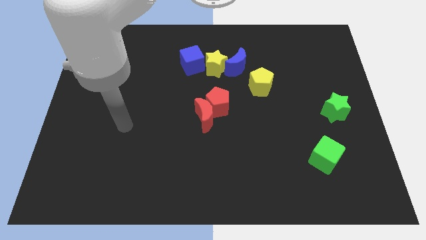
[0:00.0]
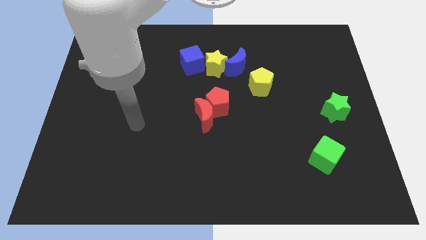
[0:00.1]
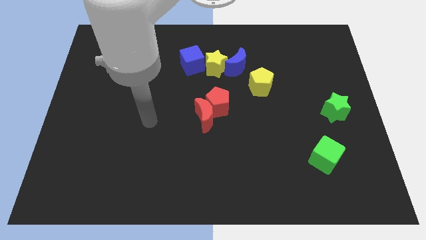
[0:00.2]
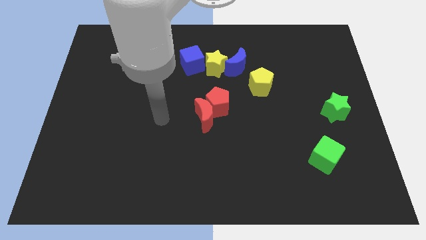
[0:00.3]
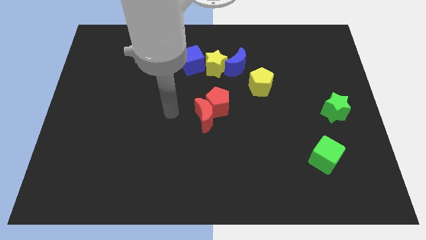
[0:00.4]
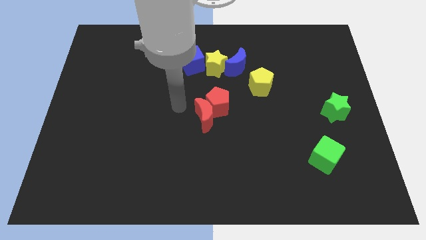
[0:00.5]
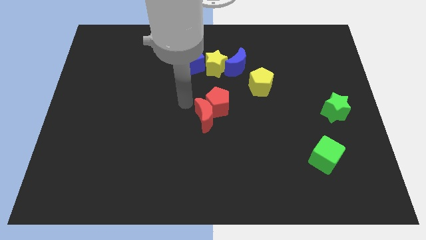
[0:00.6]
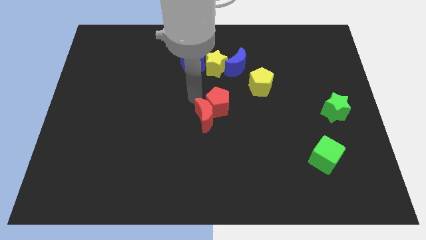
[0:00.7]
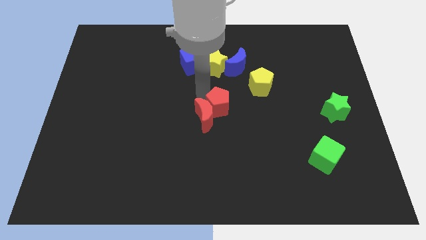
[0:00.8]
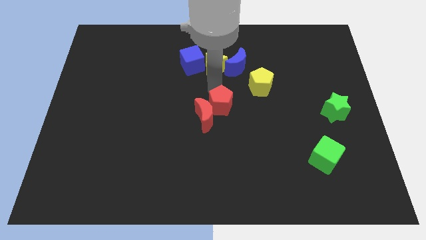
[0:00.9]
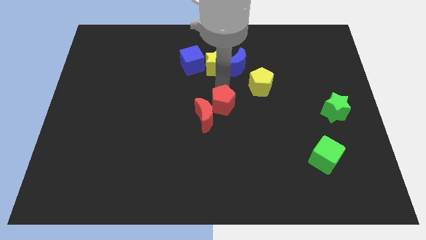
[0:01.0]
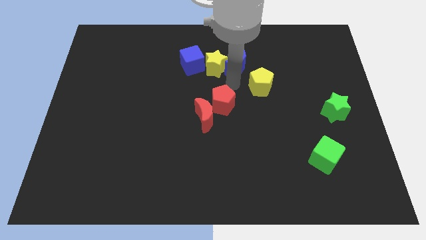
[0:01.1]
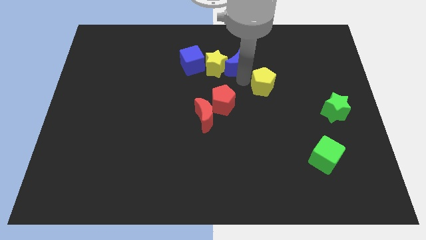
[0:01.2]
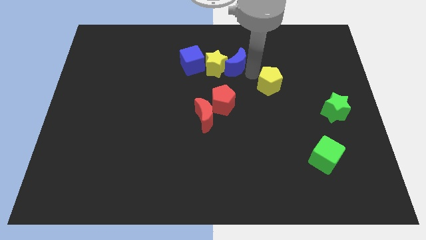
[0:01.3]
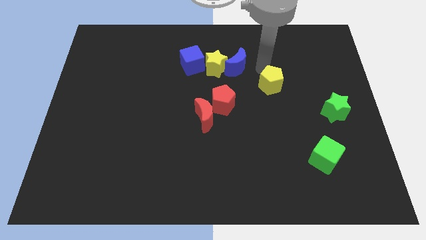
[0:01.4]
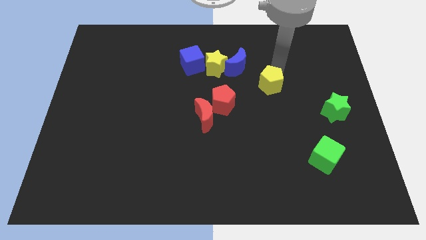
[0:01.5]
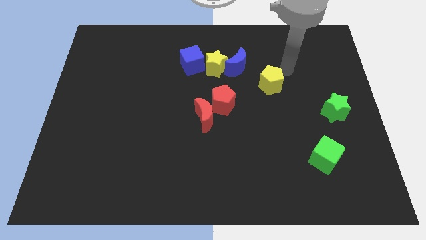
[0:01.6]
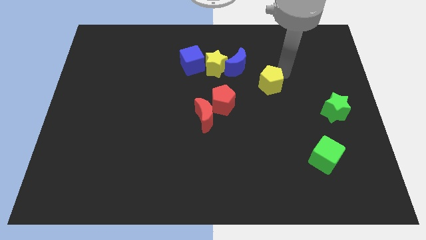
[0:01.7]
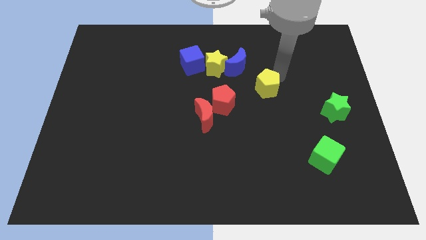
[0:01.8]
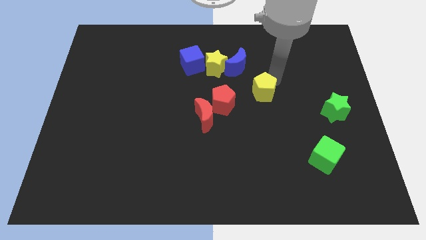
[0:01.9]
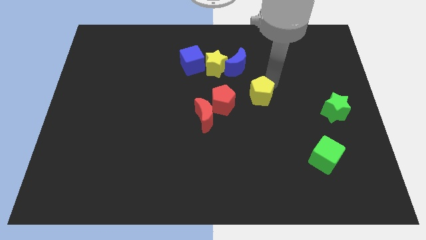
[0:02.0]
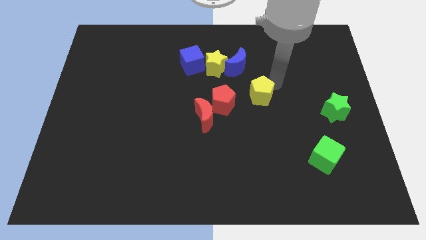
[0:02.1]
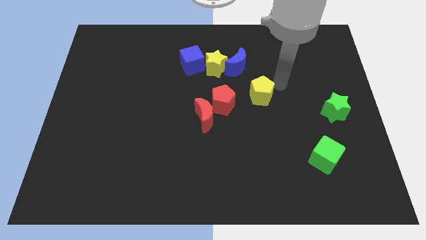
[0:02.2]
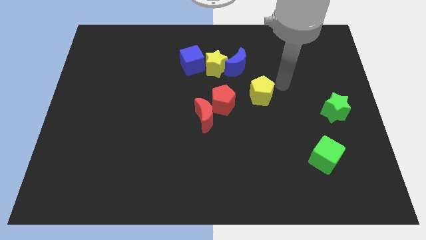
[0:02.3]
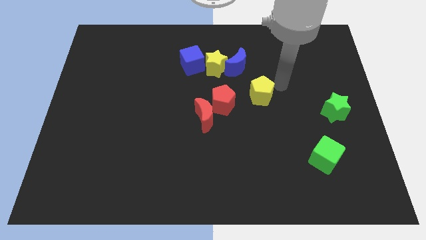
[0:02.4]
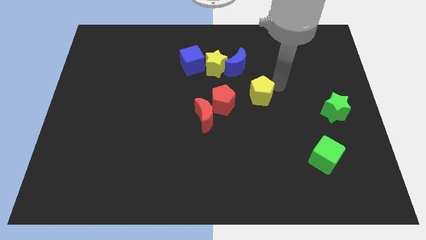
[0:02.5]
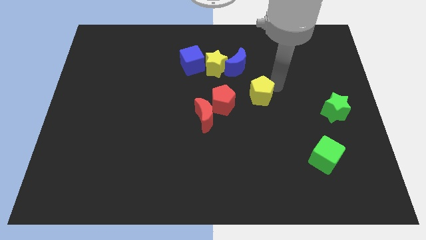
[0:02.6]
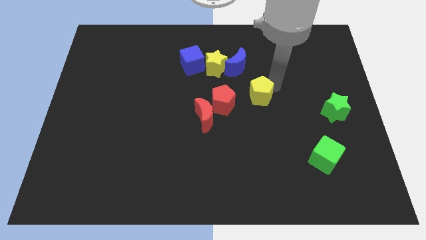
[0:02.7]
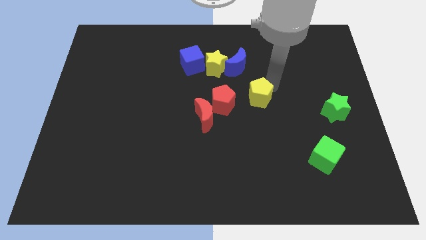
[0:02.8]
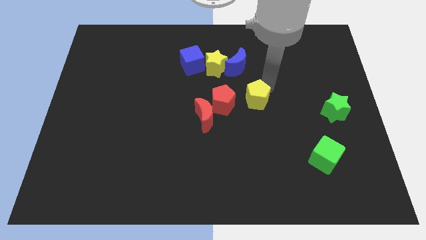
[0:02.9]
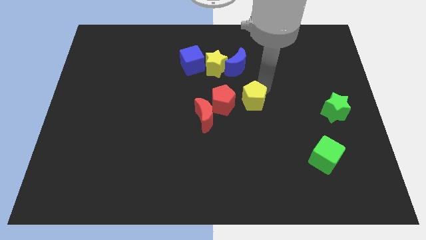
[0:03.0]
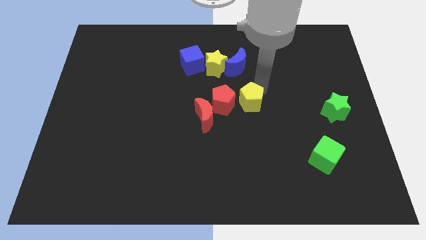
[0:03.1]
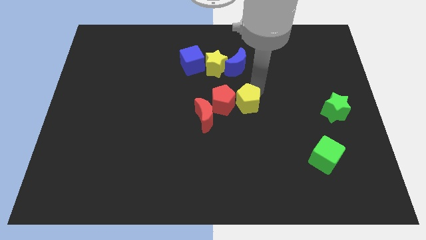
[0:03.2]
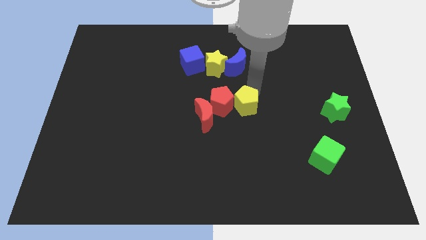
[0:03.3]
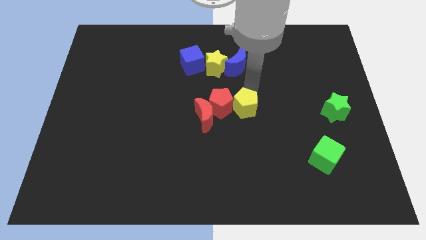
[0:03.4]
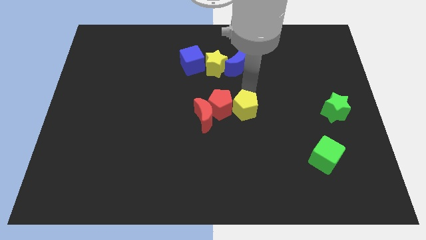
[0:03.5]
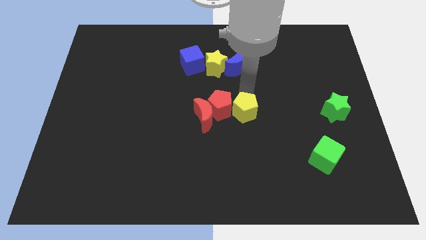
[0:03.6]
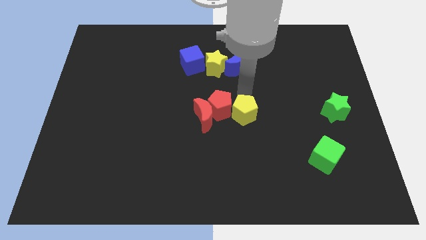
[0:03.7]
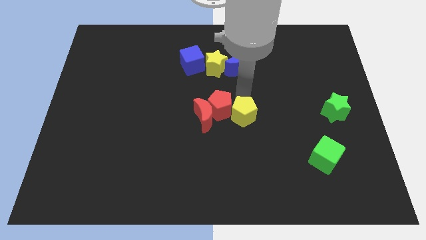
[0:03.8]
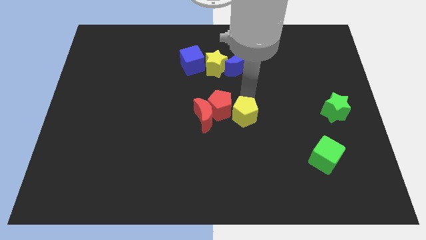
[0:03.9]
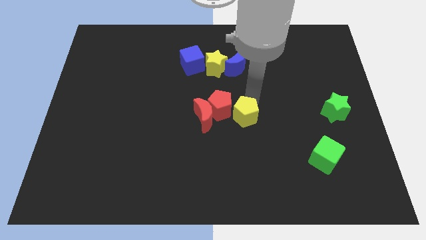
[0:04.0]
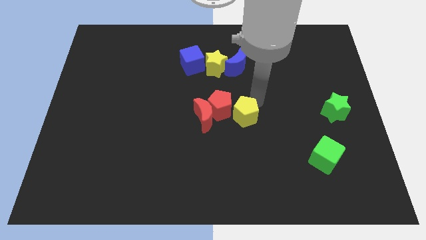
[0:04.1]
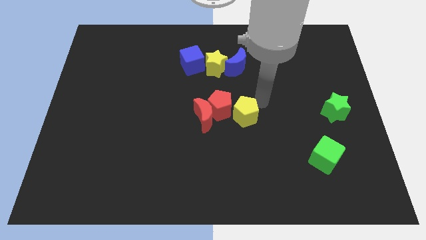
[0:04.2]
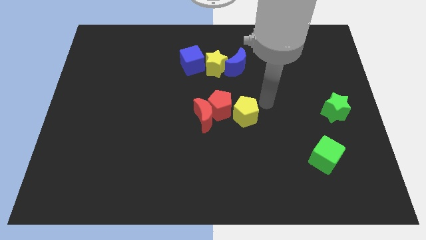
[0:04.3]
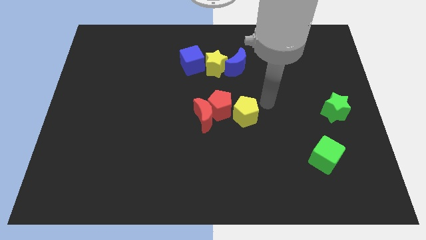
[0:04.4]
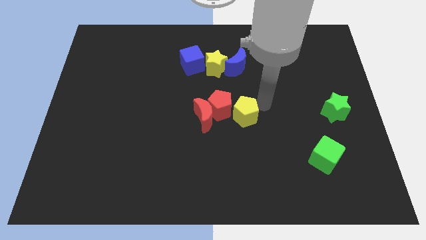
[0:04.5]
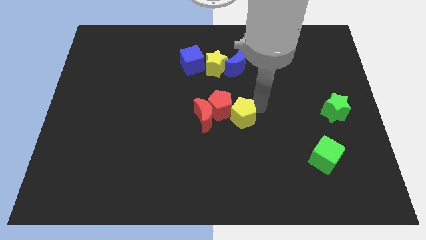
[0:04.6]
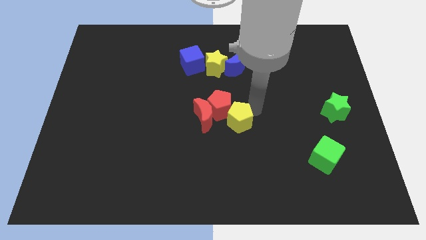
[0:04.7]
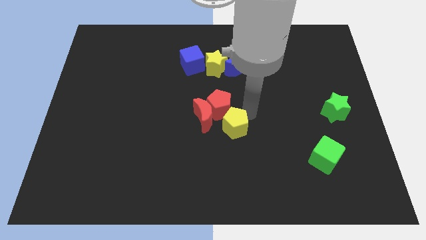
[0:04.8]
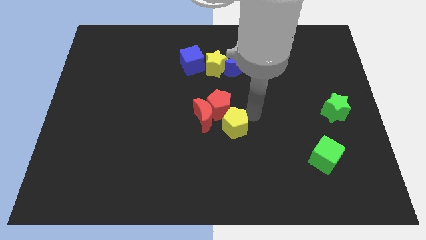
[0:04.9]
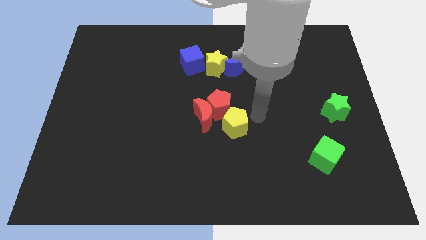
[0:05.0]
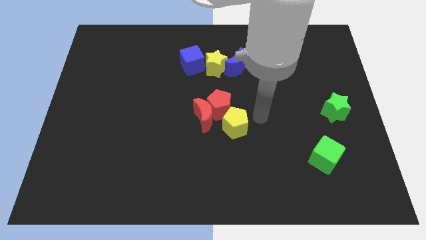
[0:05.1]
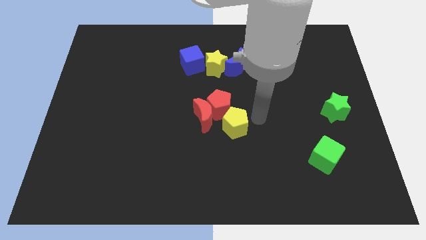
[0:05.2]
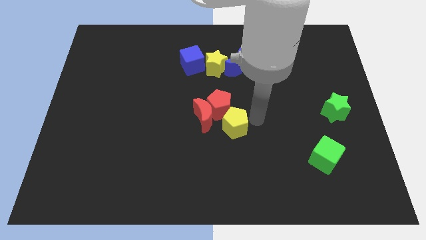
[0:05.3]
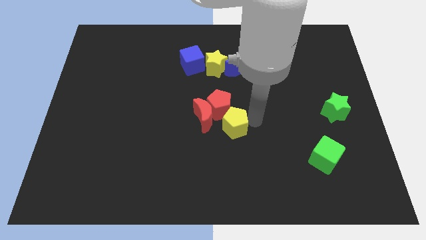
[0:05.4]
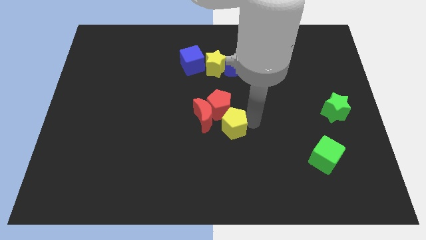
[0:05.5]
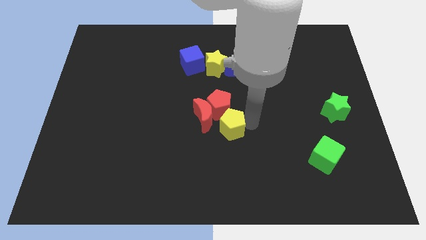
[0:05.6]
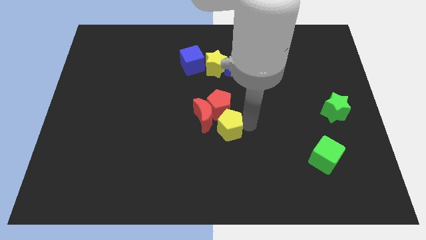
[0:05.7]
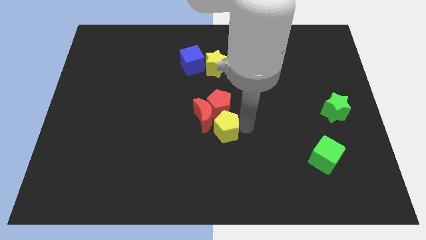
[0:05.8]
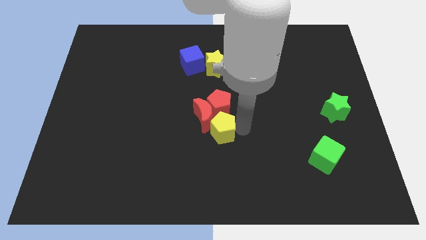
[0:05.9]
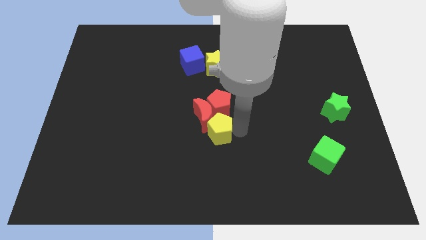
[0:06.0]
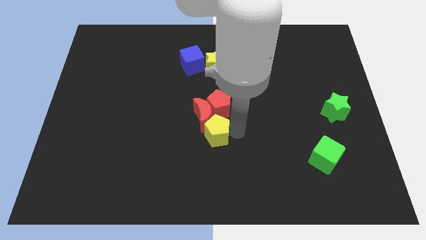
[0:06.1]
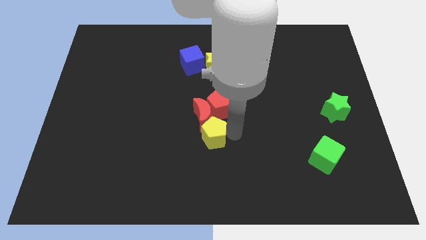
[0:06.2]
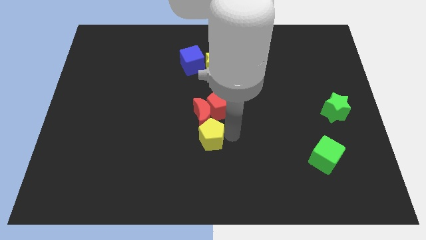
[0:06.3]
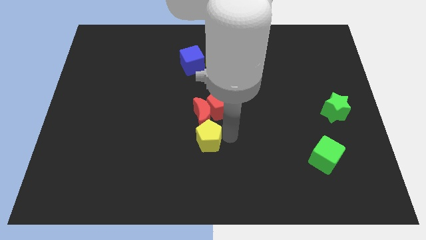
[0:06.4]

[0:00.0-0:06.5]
slide the yellow pentagon down and then left

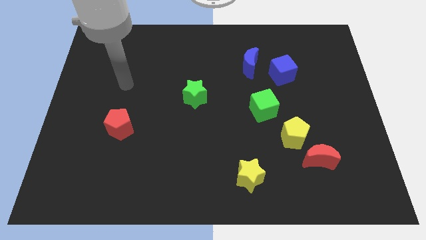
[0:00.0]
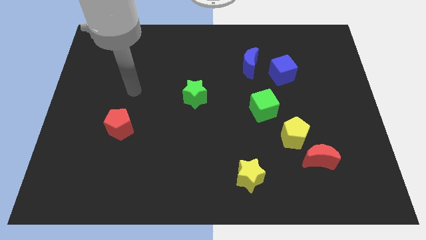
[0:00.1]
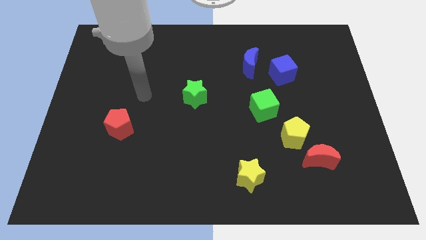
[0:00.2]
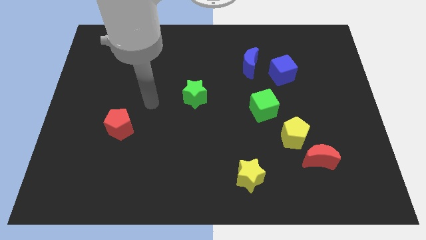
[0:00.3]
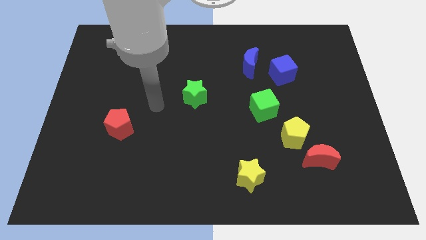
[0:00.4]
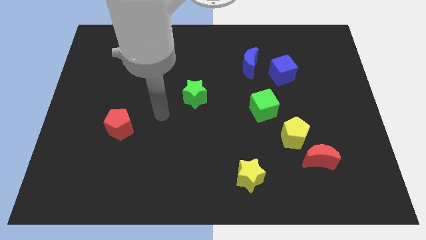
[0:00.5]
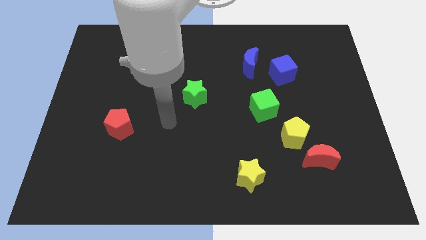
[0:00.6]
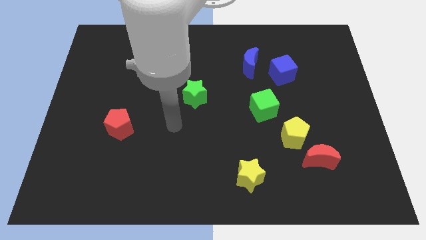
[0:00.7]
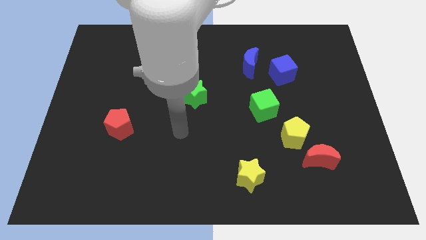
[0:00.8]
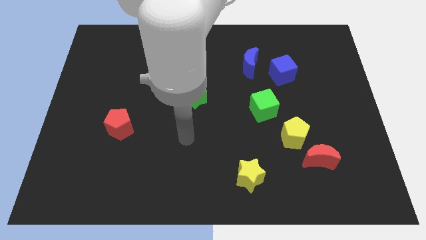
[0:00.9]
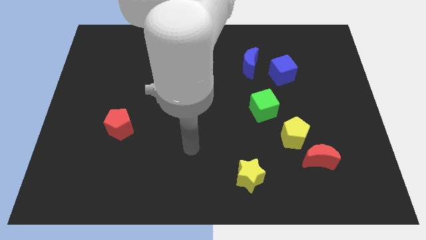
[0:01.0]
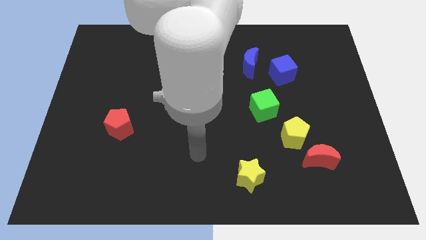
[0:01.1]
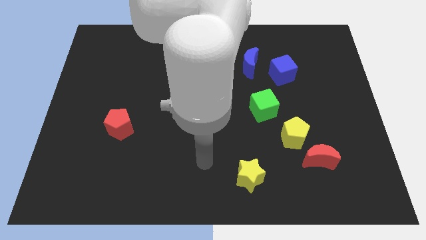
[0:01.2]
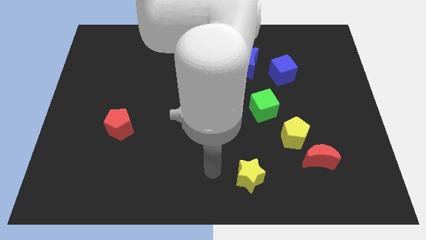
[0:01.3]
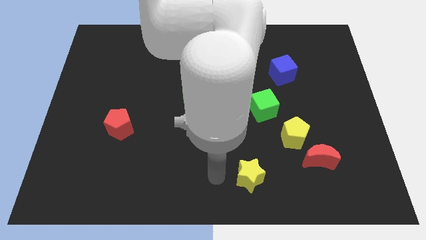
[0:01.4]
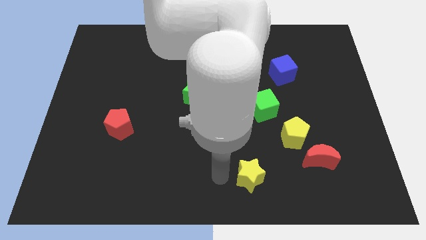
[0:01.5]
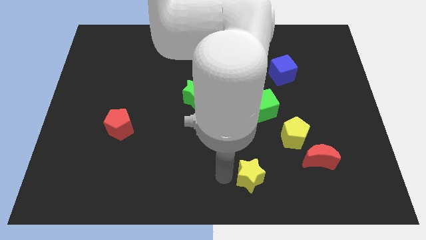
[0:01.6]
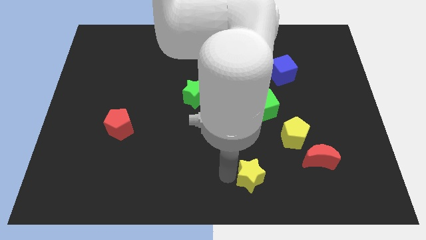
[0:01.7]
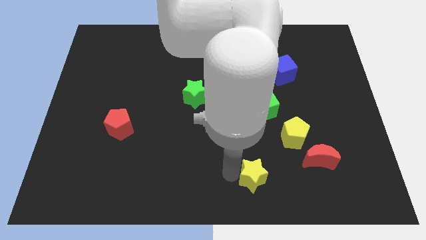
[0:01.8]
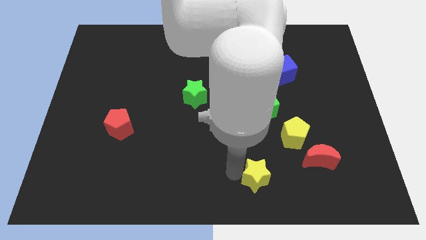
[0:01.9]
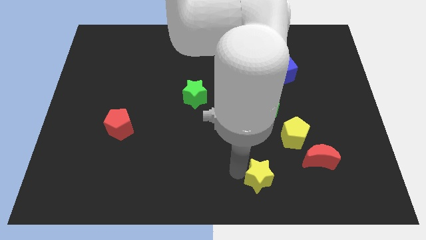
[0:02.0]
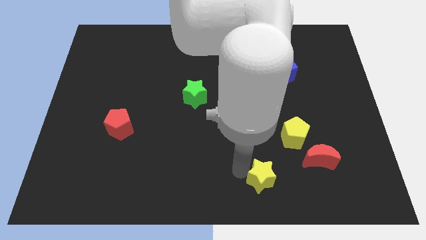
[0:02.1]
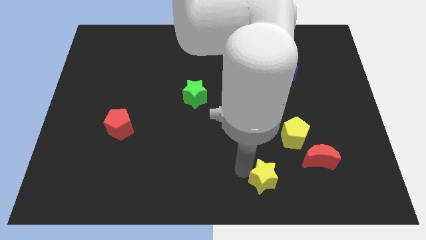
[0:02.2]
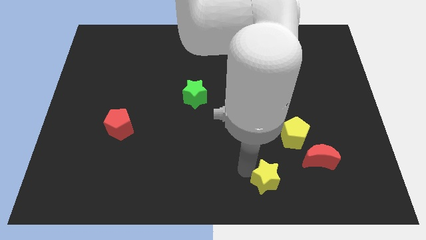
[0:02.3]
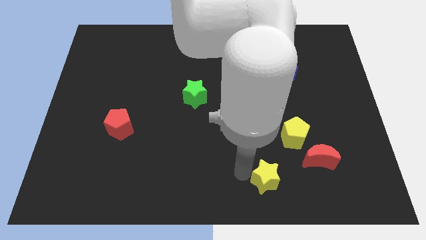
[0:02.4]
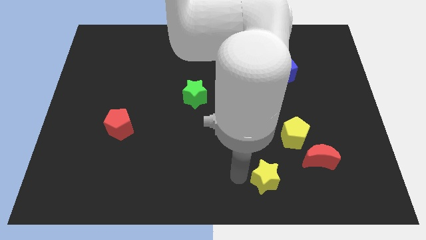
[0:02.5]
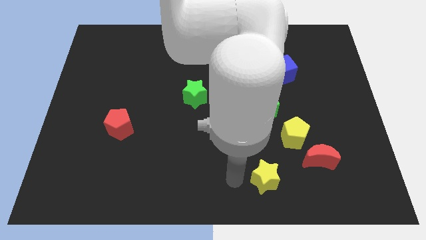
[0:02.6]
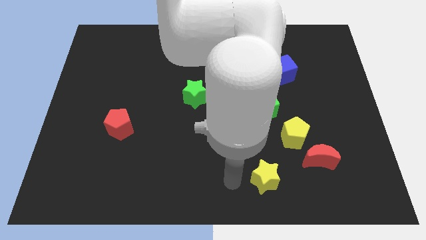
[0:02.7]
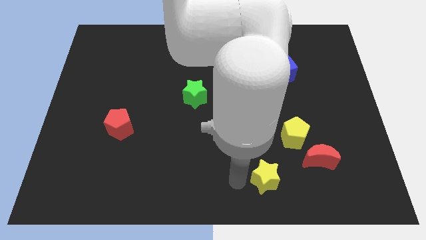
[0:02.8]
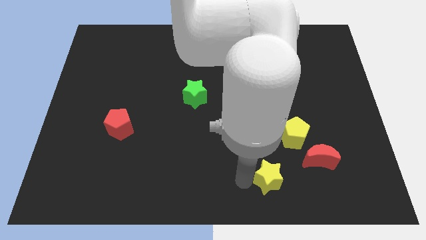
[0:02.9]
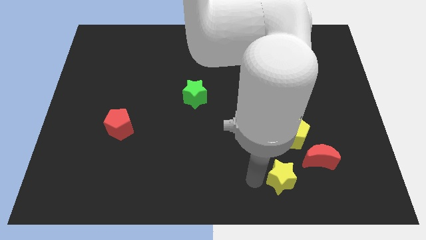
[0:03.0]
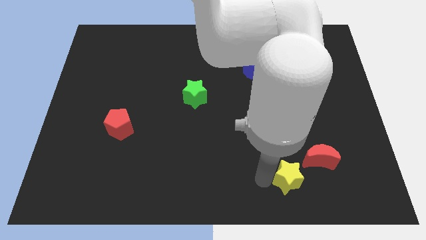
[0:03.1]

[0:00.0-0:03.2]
slightly slide the yellow star to the right
